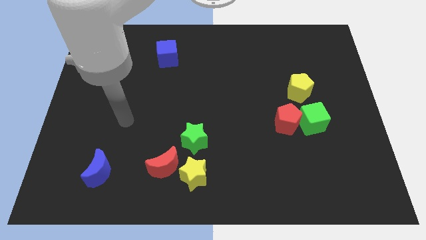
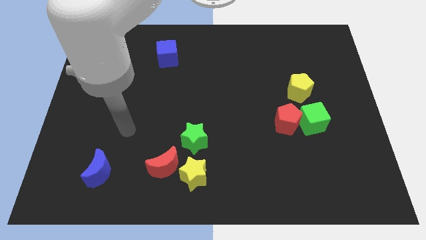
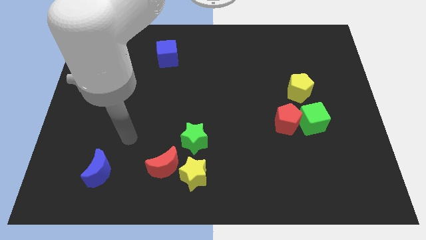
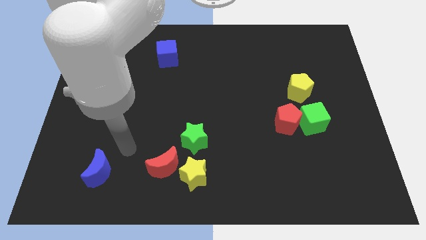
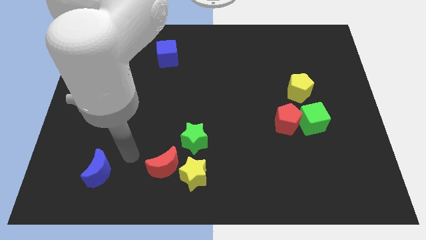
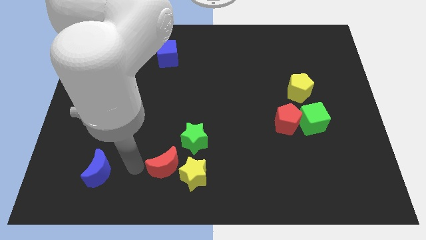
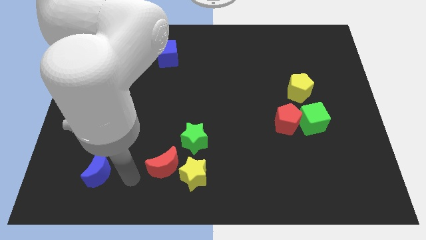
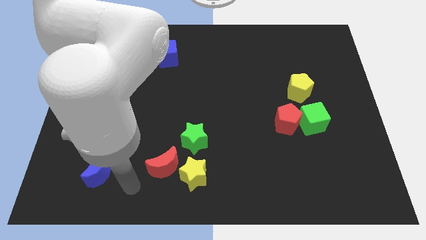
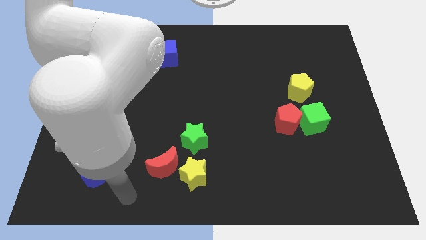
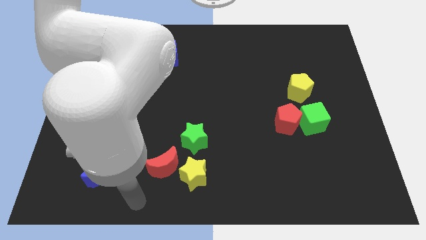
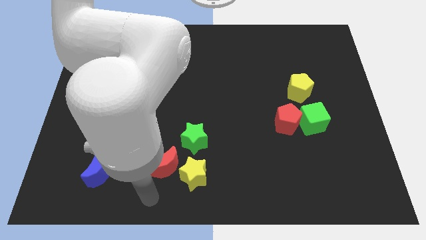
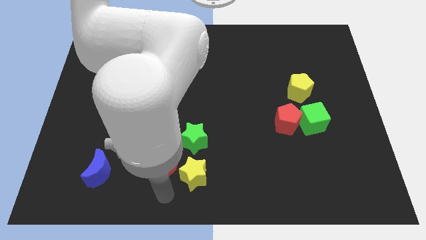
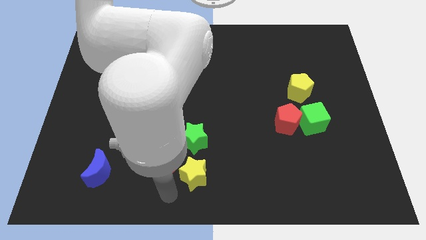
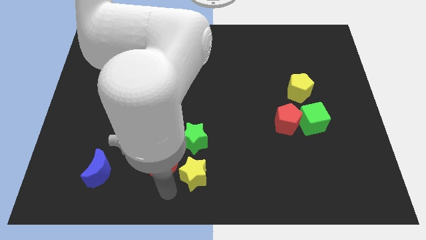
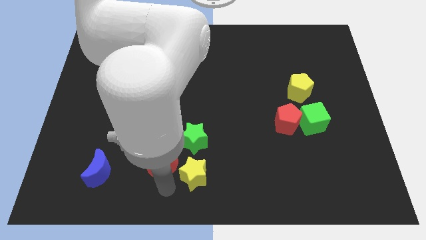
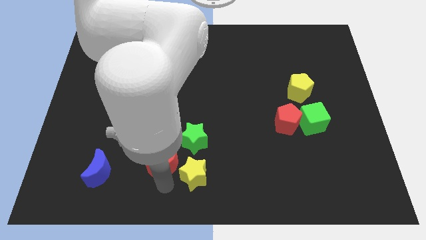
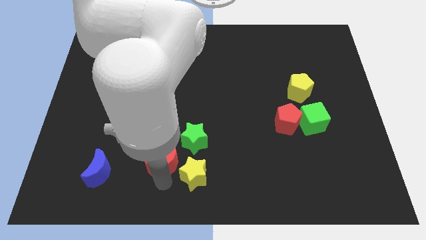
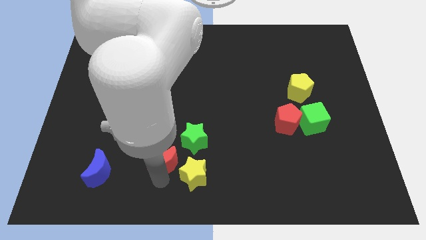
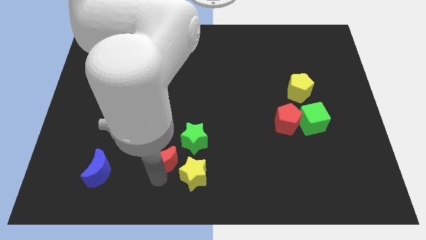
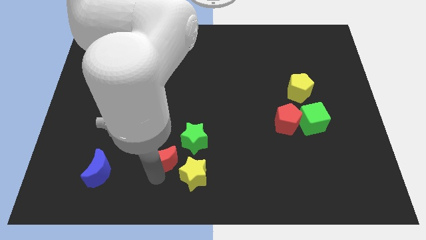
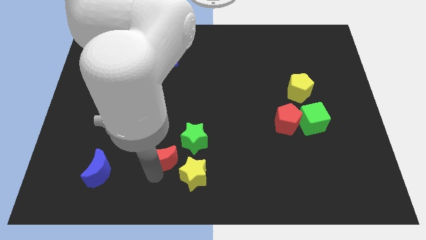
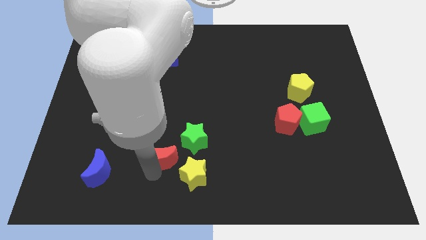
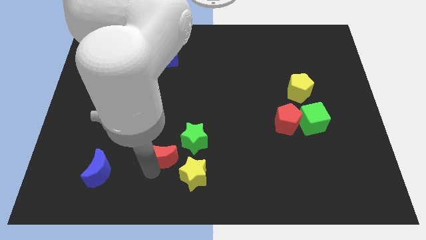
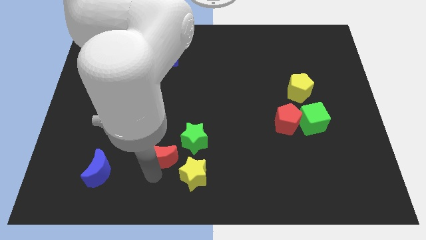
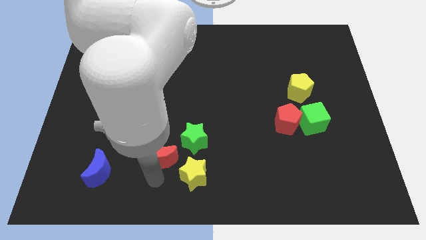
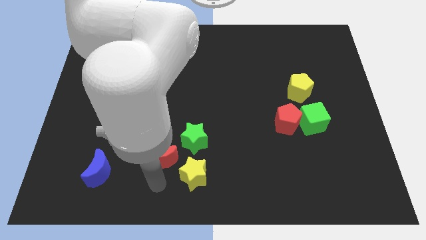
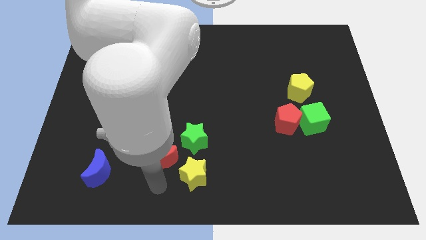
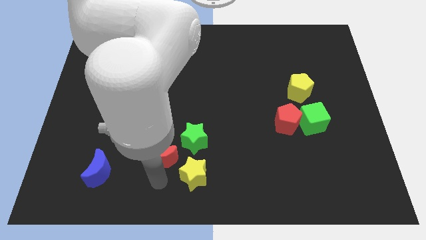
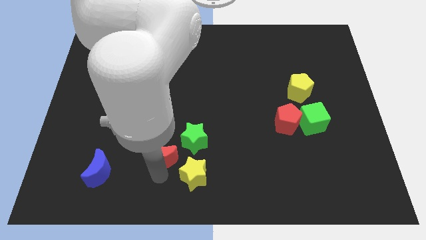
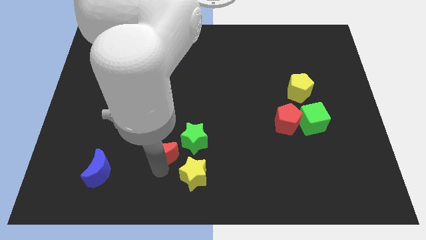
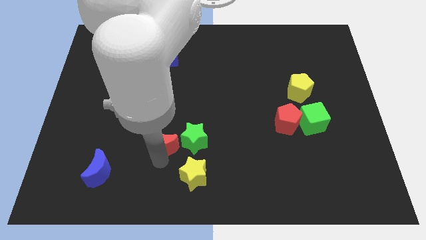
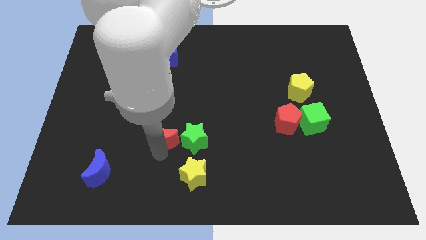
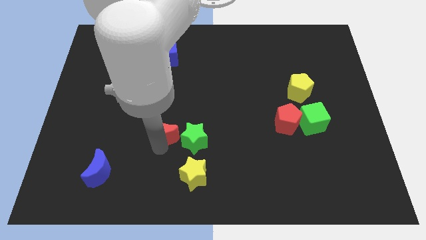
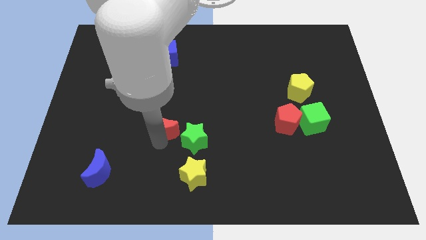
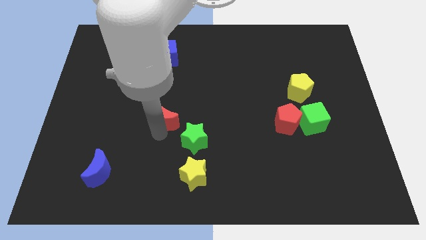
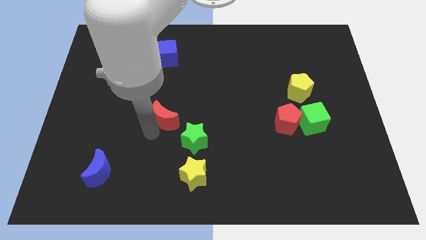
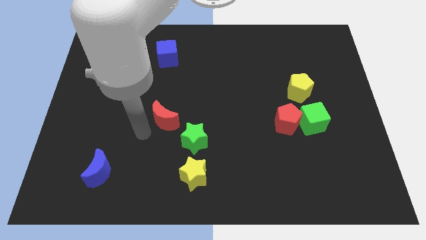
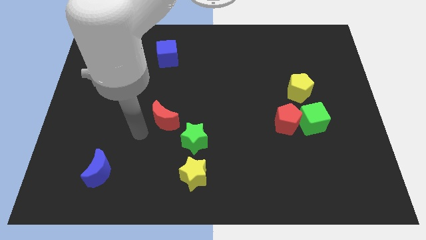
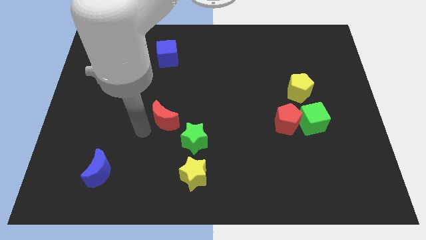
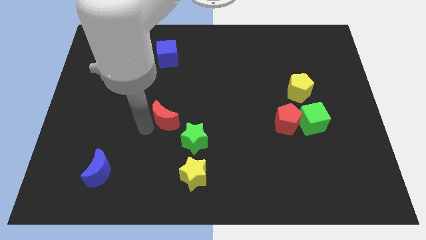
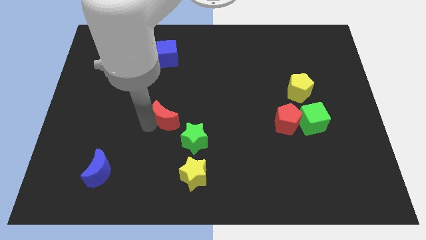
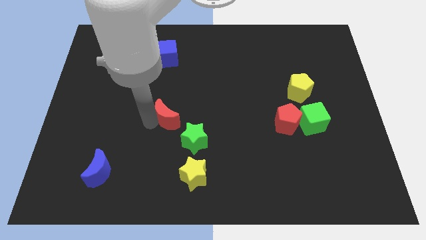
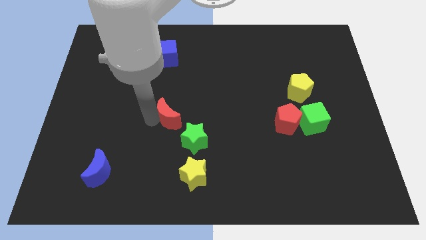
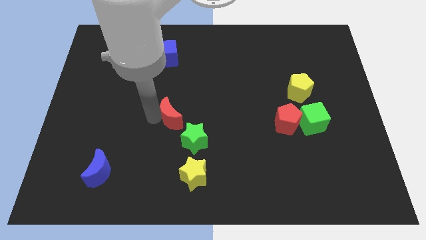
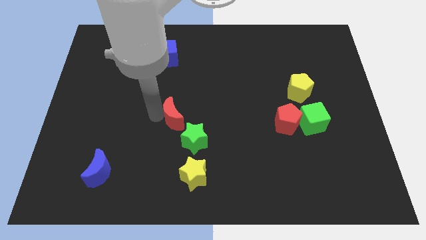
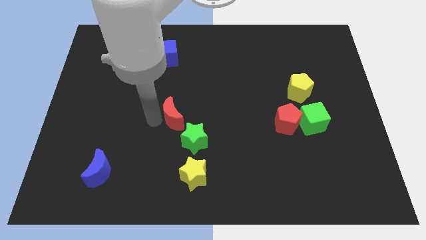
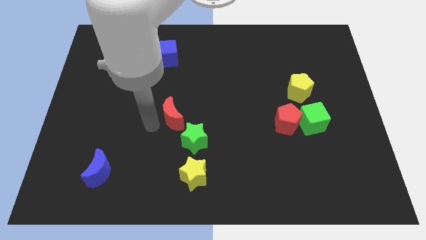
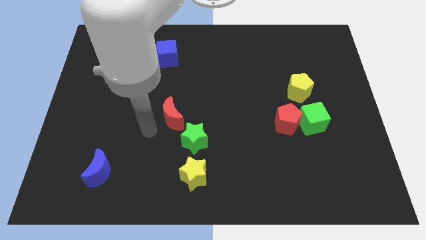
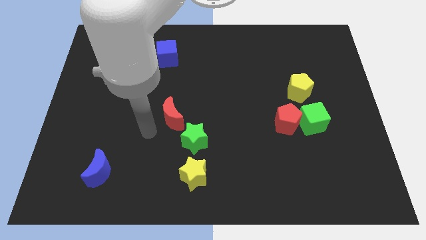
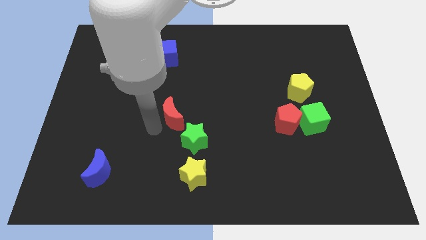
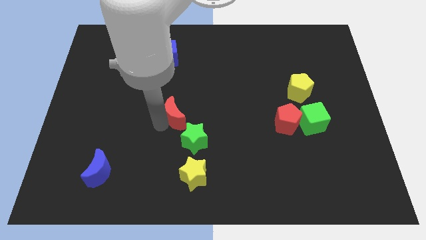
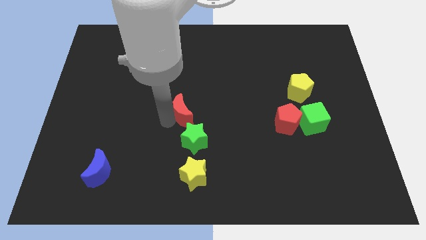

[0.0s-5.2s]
push the red moon to the top of the green star

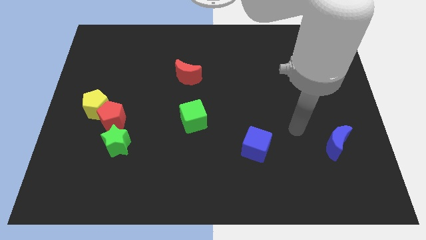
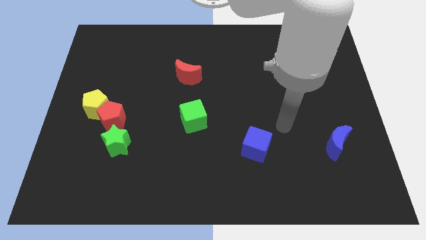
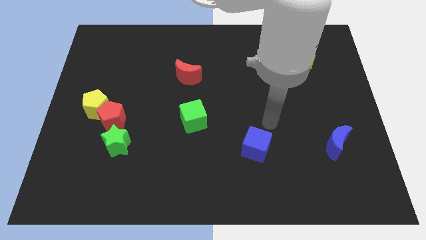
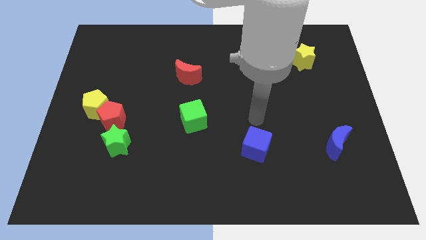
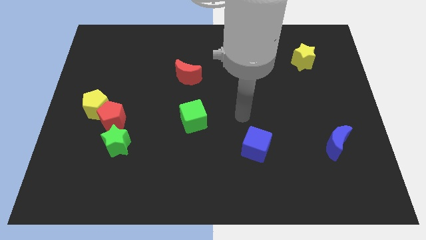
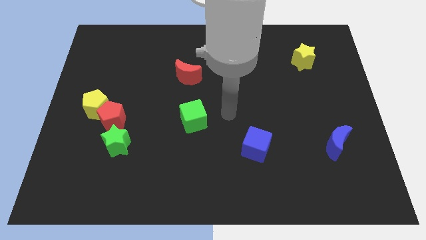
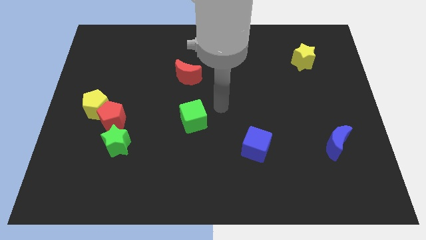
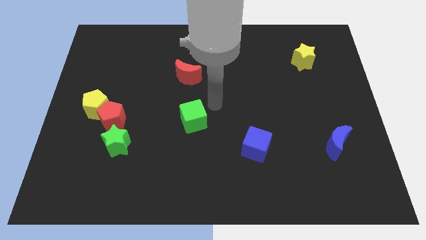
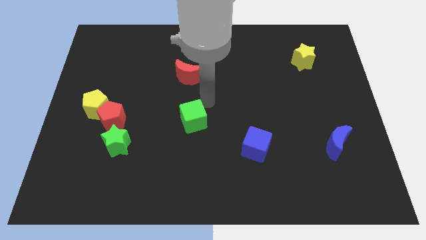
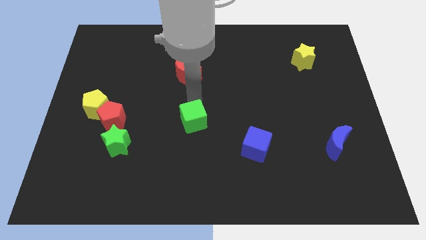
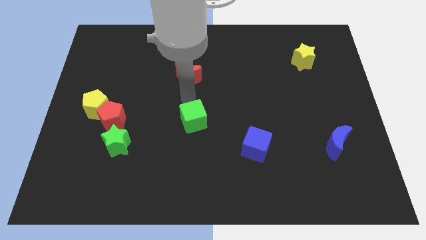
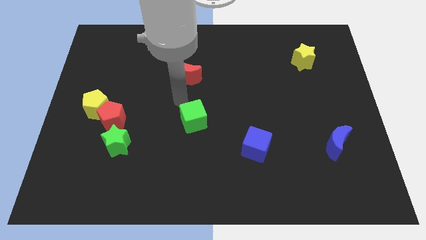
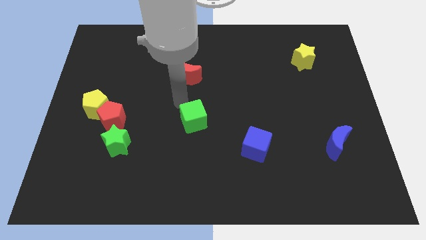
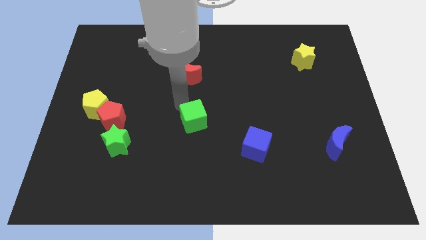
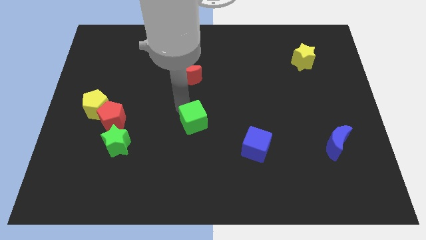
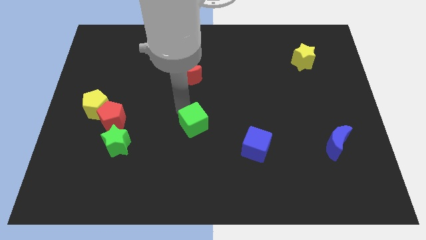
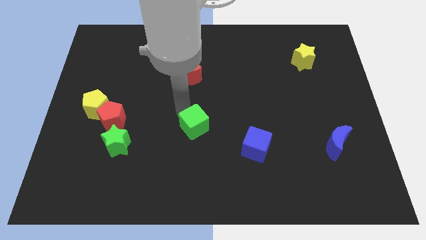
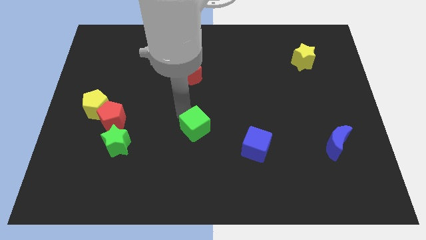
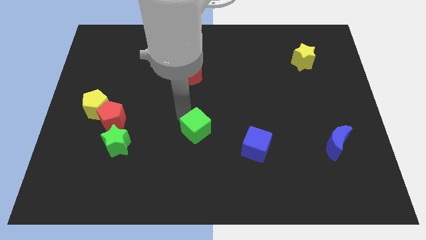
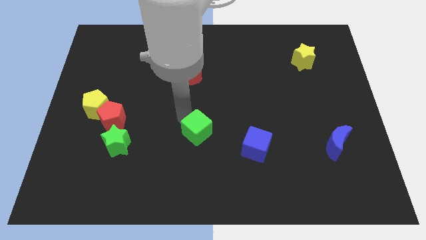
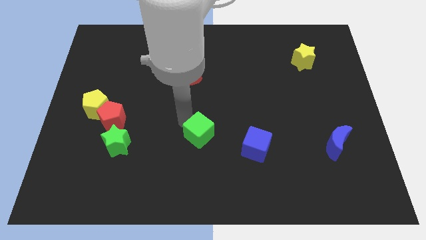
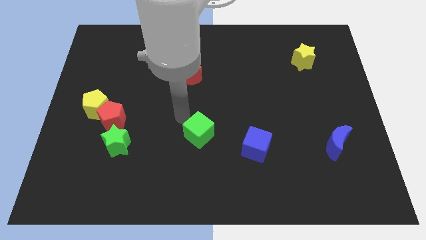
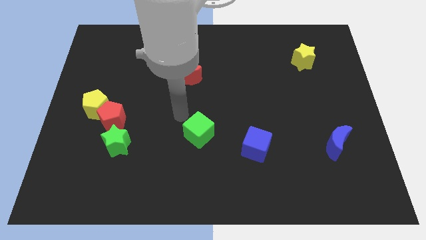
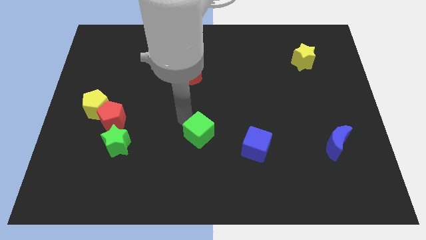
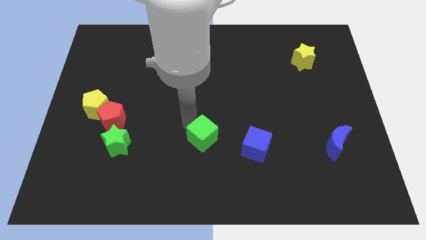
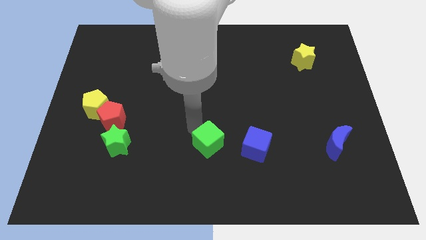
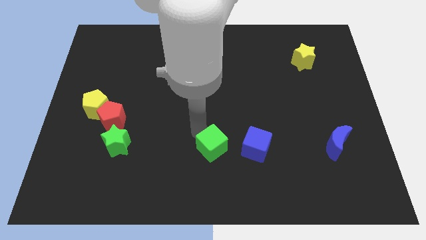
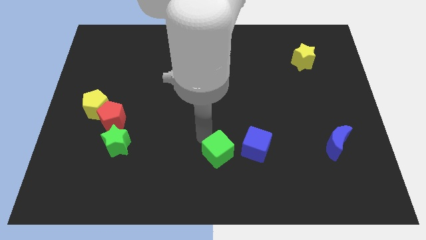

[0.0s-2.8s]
slide the green cube to the bottom left of the blue cube
